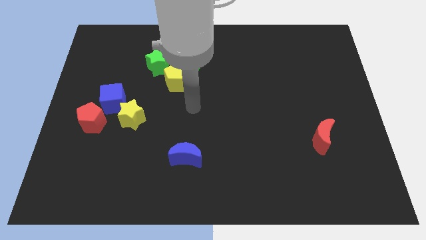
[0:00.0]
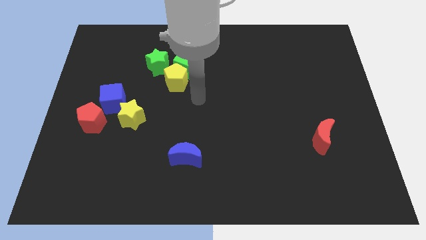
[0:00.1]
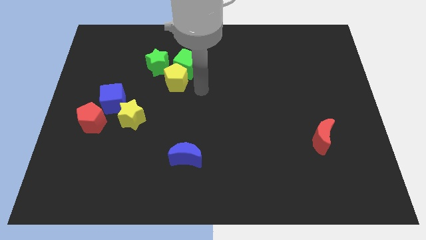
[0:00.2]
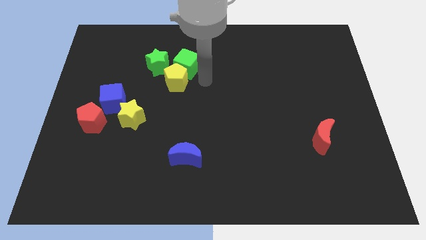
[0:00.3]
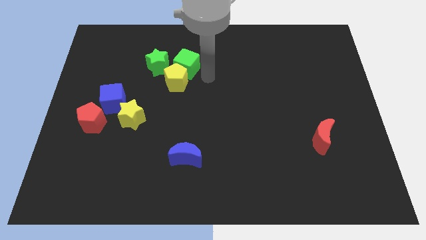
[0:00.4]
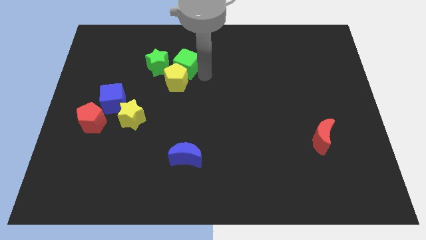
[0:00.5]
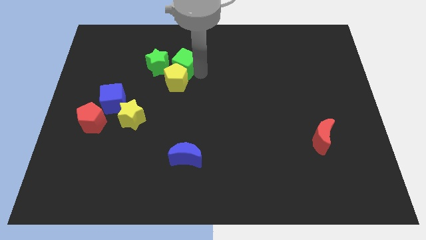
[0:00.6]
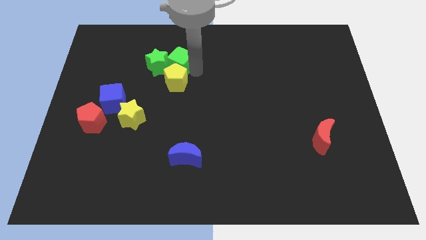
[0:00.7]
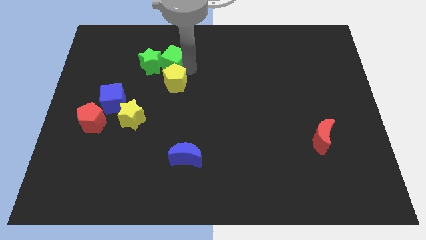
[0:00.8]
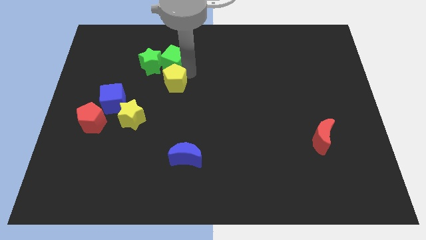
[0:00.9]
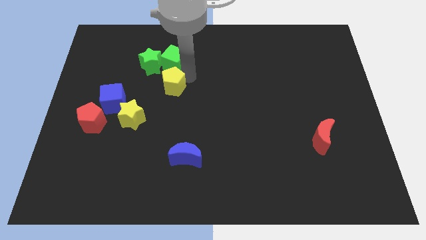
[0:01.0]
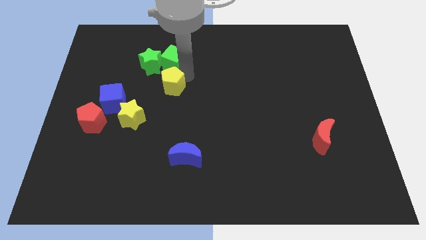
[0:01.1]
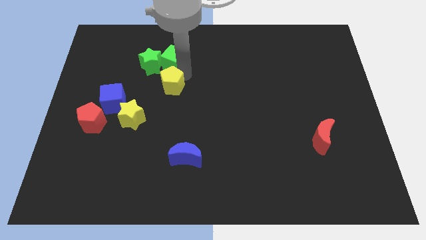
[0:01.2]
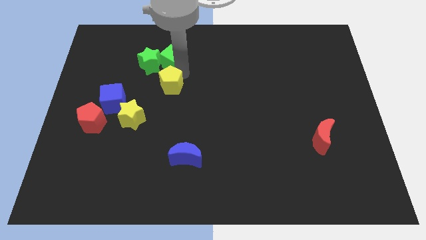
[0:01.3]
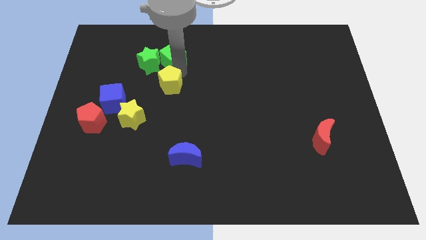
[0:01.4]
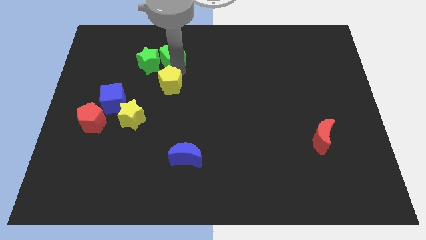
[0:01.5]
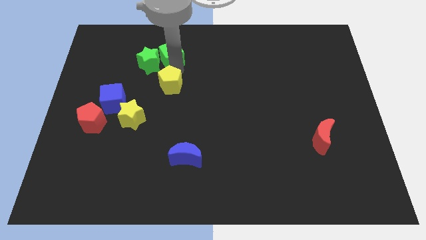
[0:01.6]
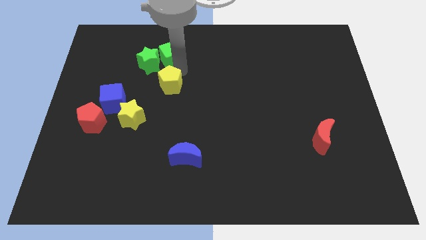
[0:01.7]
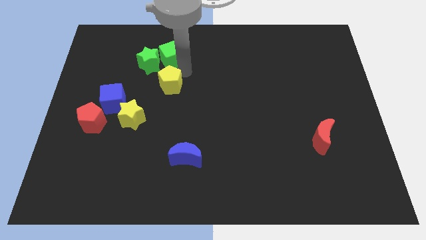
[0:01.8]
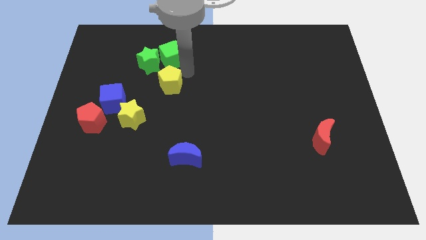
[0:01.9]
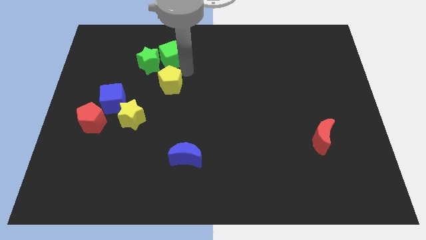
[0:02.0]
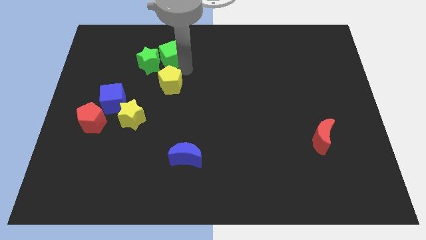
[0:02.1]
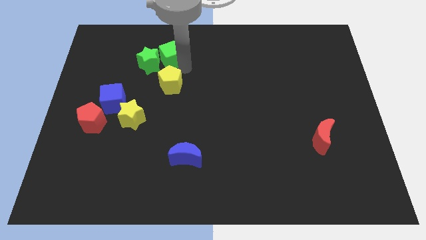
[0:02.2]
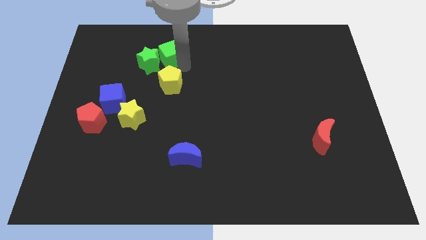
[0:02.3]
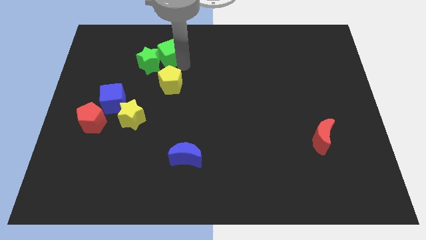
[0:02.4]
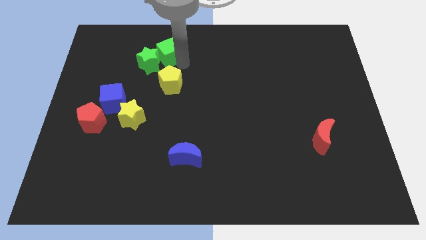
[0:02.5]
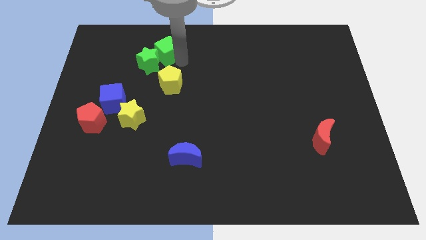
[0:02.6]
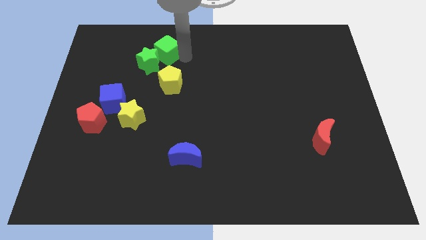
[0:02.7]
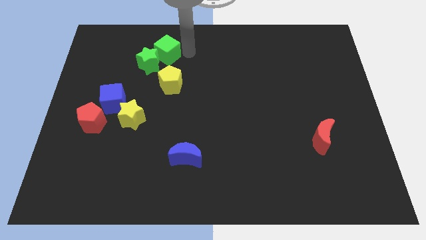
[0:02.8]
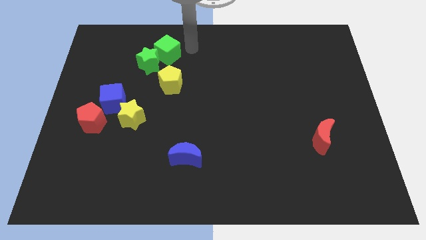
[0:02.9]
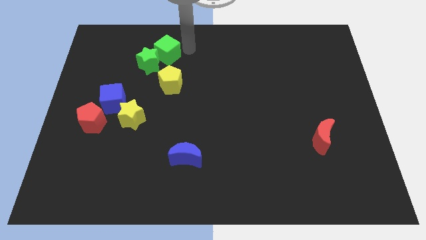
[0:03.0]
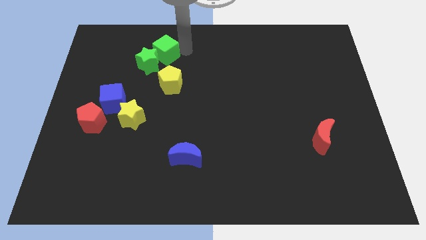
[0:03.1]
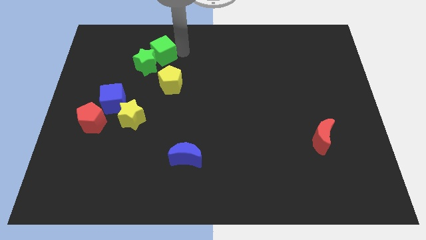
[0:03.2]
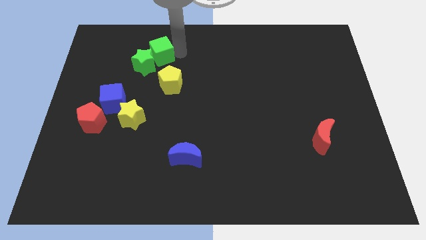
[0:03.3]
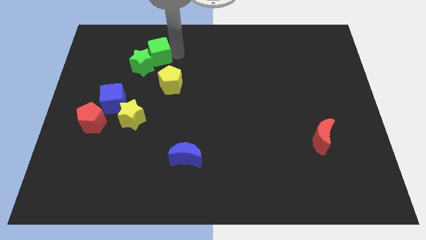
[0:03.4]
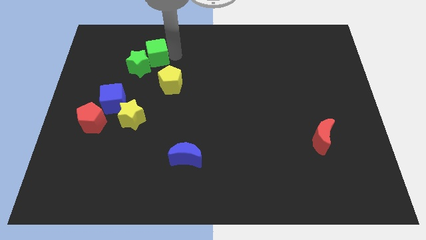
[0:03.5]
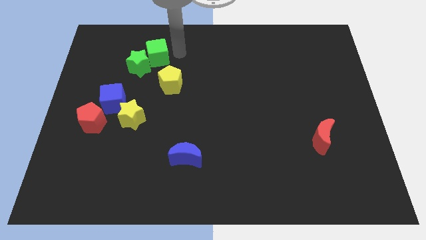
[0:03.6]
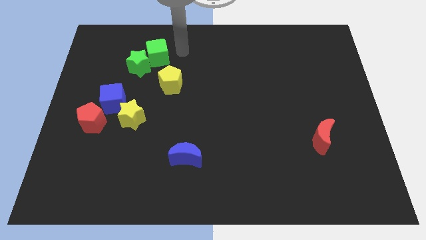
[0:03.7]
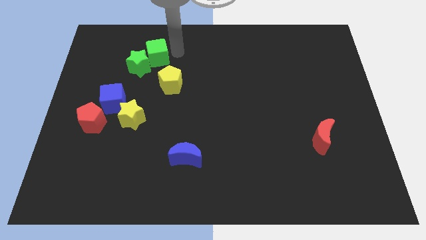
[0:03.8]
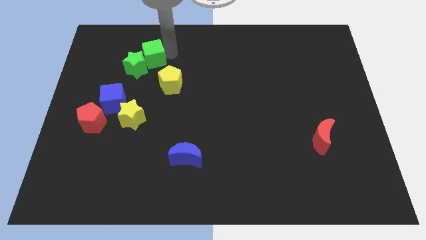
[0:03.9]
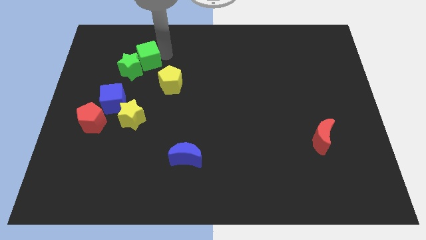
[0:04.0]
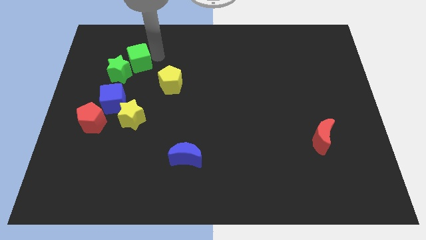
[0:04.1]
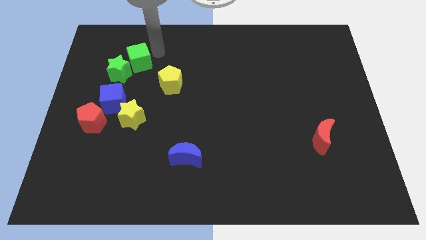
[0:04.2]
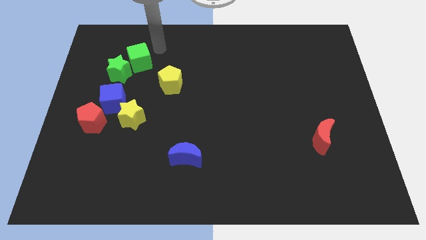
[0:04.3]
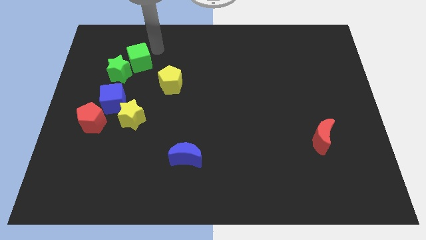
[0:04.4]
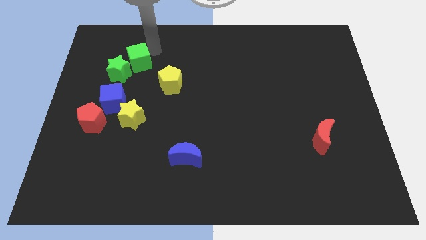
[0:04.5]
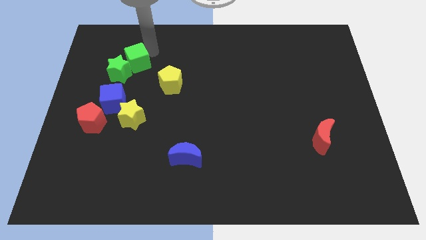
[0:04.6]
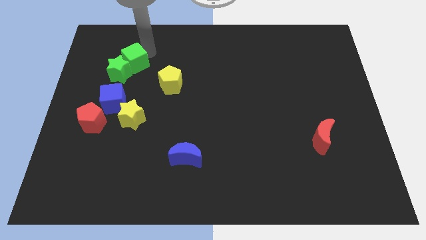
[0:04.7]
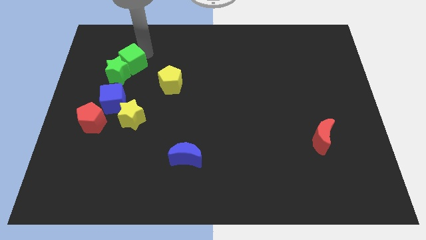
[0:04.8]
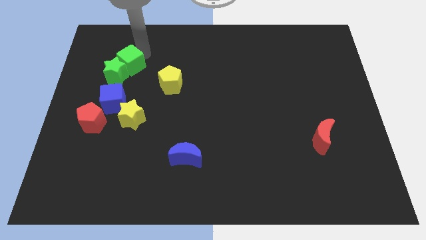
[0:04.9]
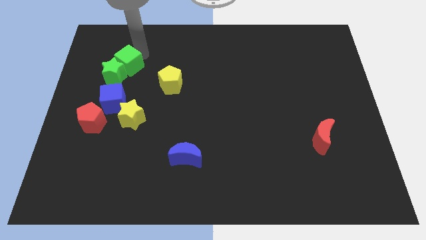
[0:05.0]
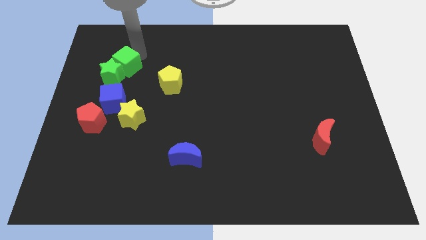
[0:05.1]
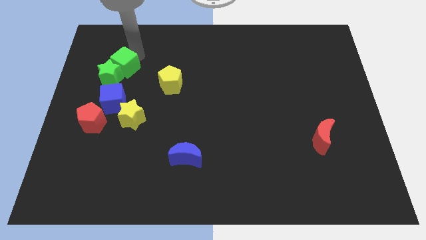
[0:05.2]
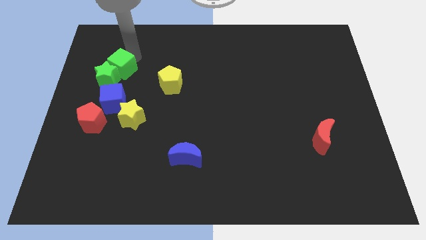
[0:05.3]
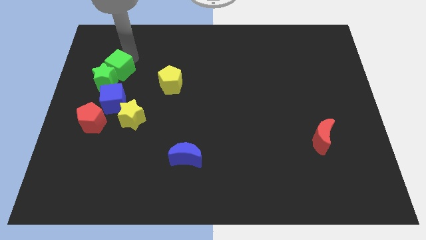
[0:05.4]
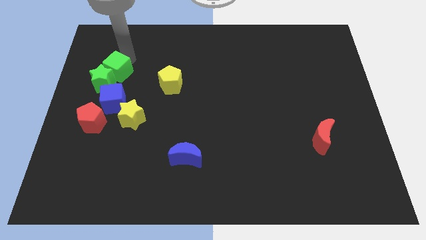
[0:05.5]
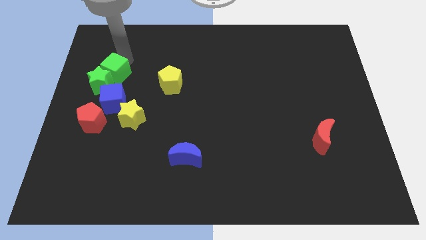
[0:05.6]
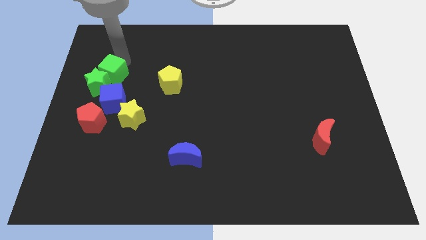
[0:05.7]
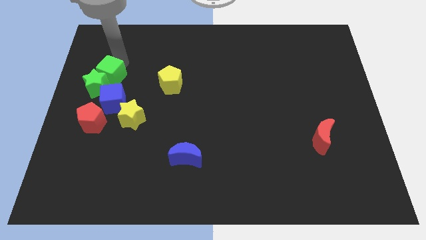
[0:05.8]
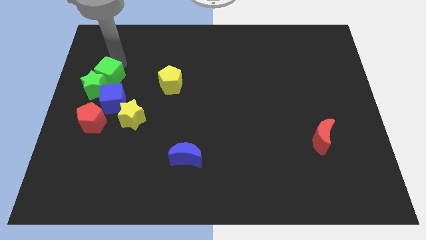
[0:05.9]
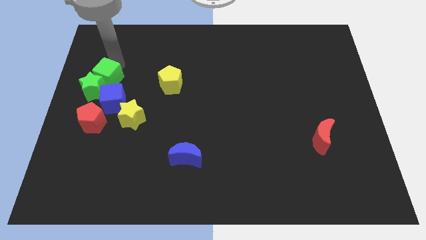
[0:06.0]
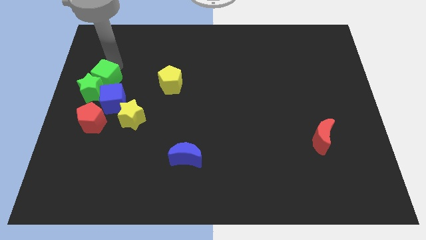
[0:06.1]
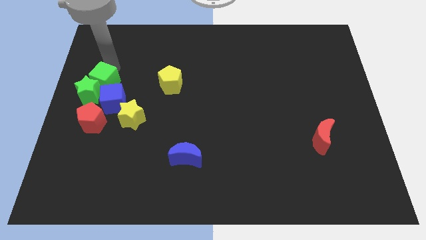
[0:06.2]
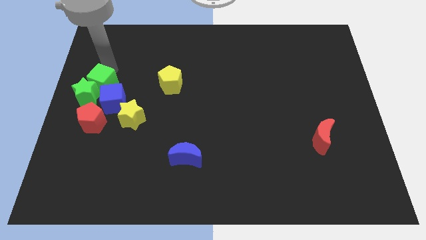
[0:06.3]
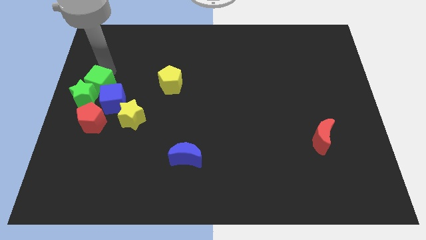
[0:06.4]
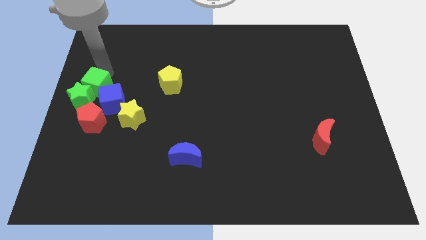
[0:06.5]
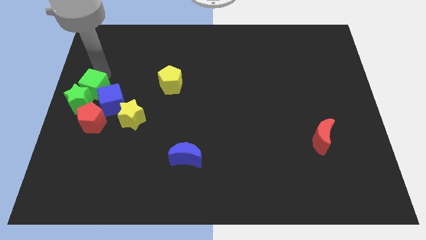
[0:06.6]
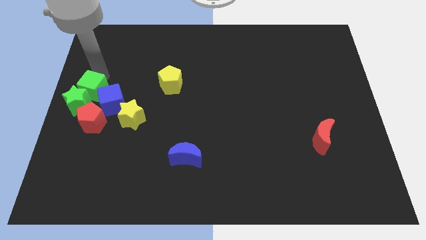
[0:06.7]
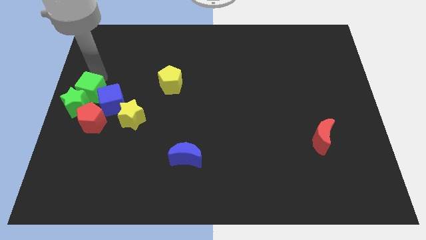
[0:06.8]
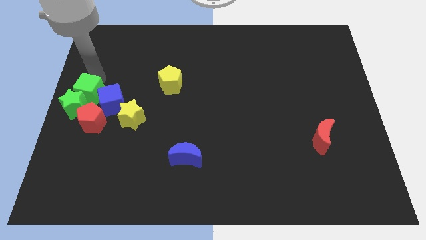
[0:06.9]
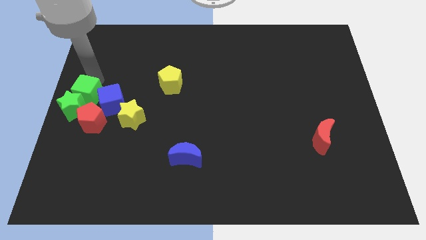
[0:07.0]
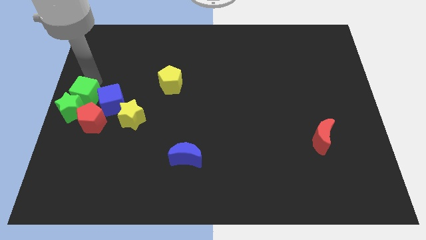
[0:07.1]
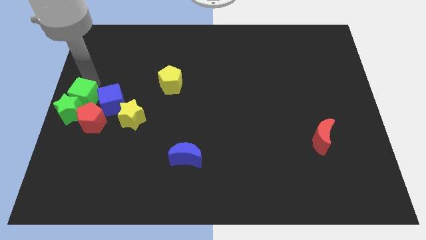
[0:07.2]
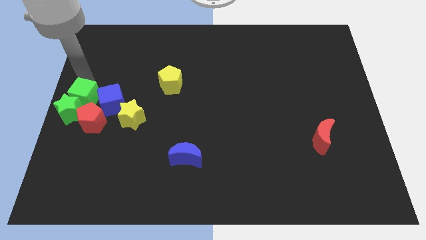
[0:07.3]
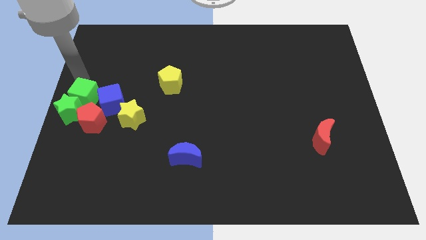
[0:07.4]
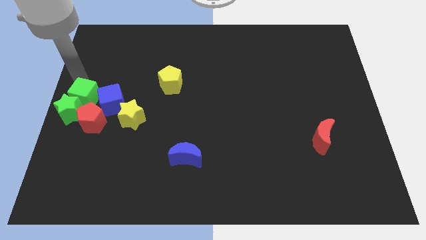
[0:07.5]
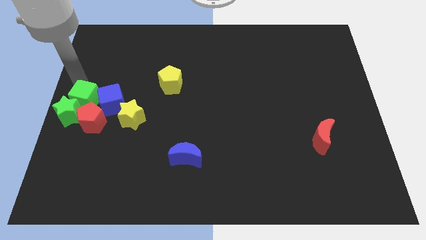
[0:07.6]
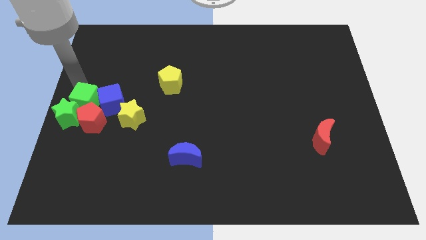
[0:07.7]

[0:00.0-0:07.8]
move the green cube next to the red pentagon
